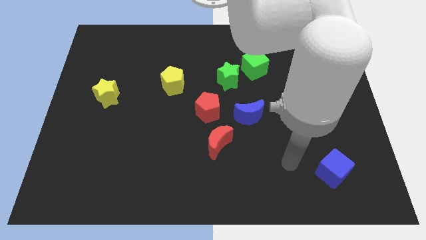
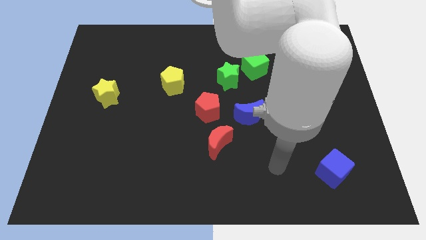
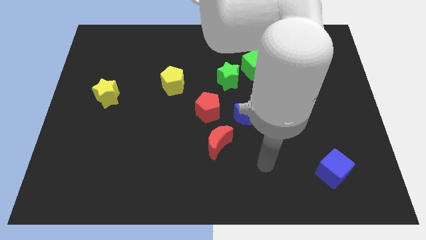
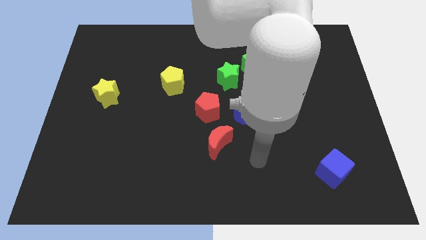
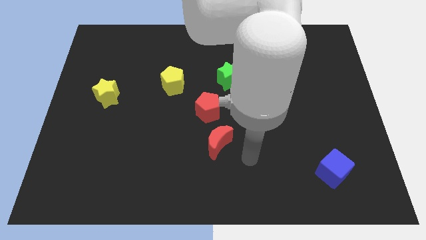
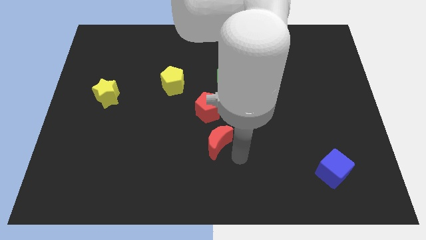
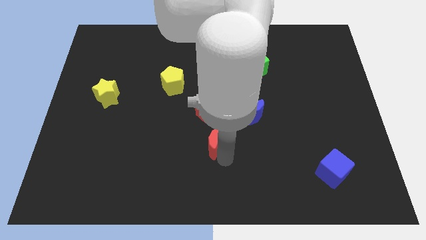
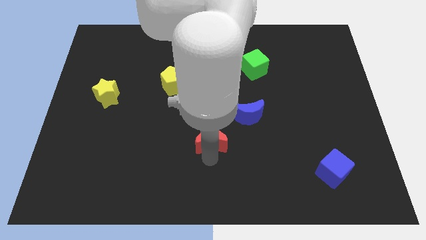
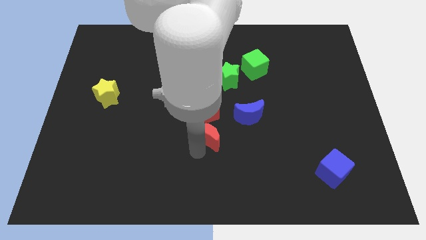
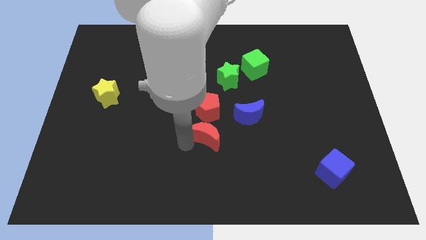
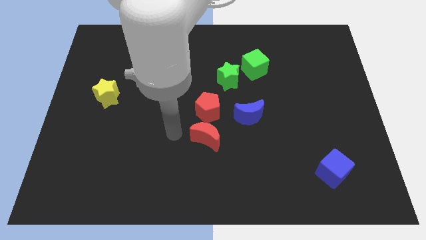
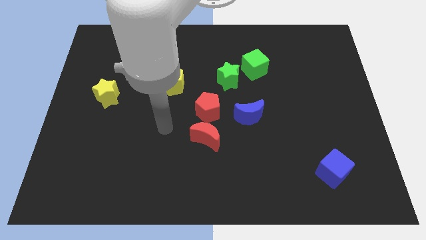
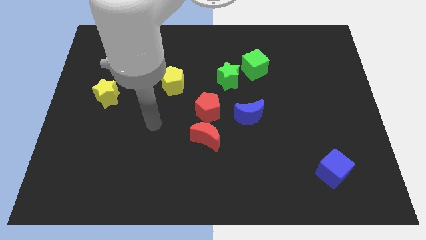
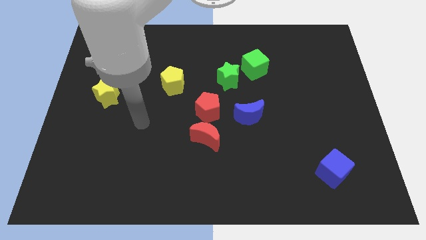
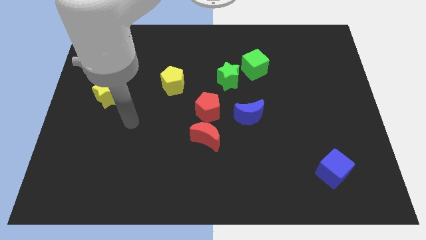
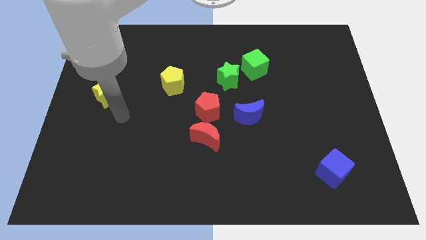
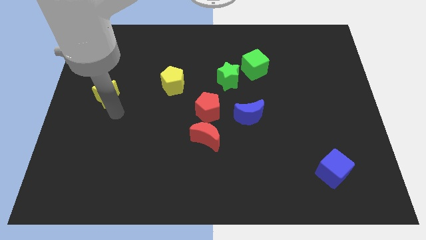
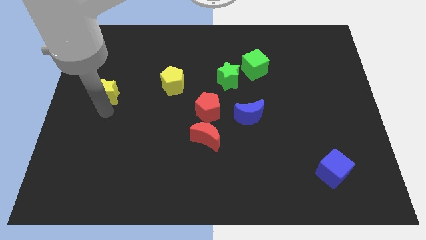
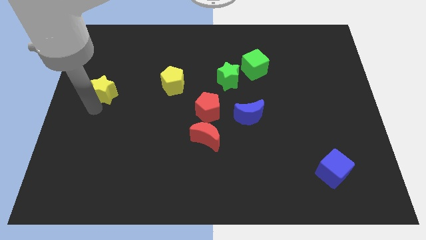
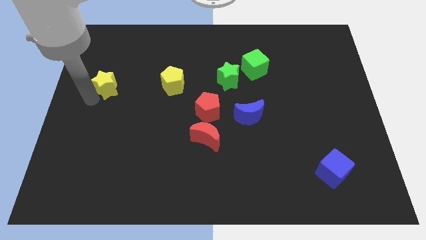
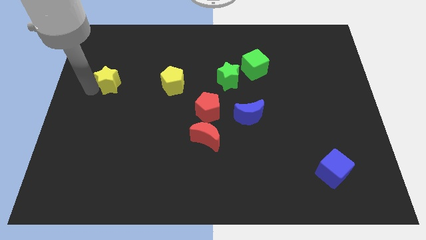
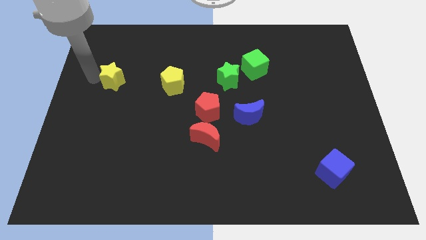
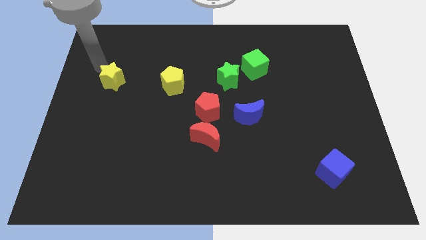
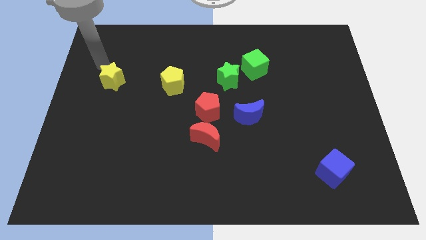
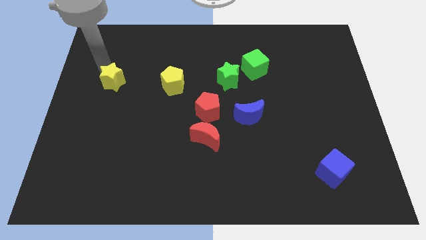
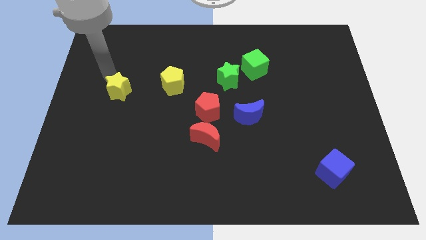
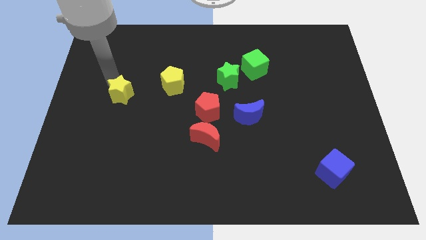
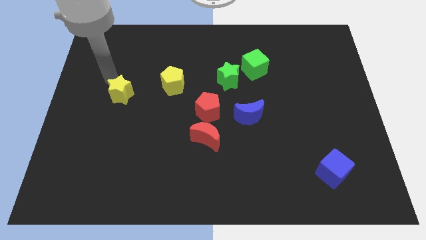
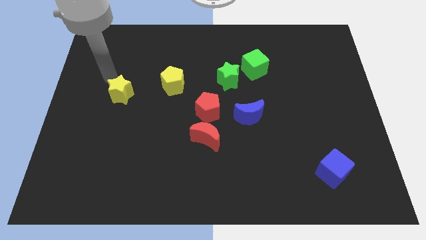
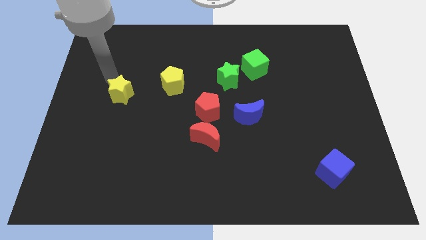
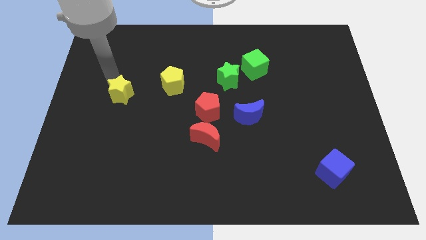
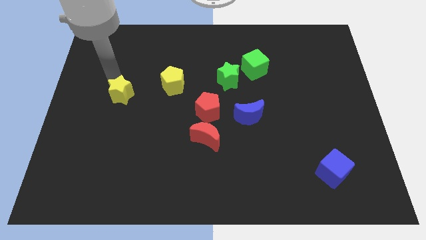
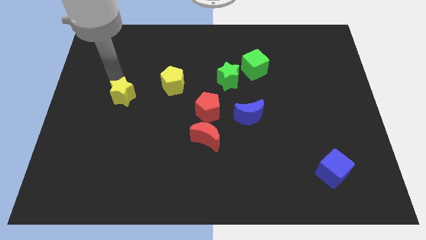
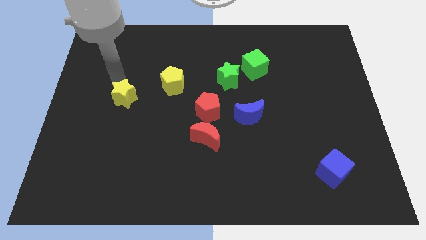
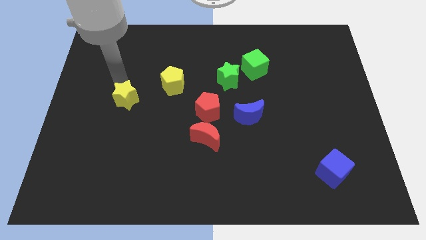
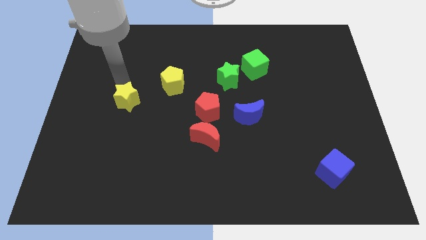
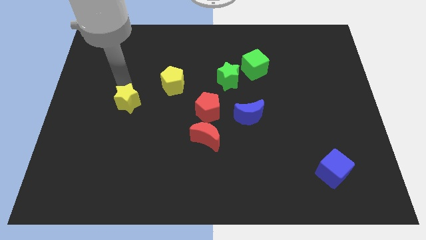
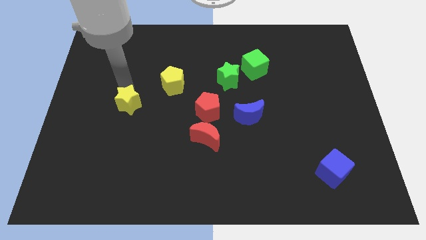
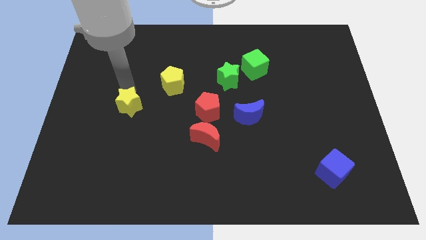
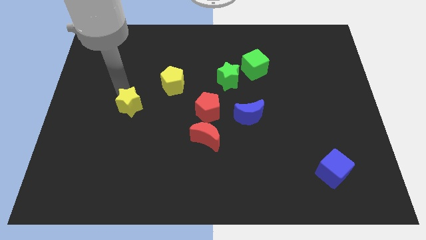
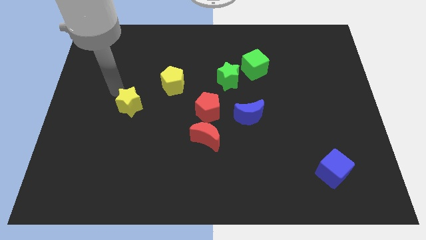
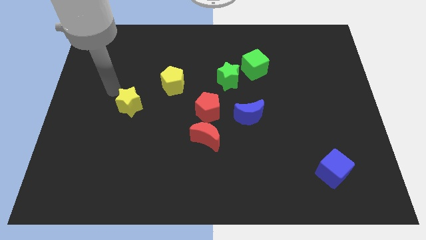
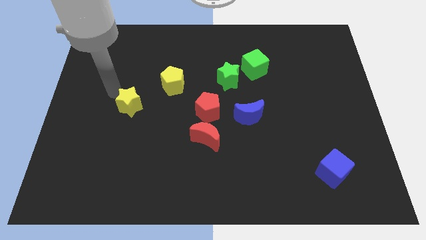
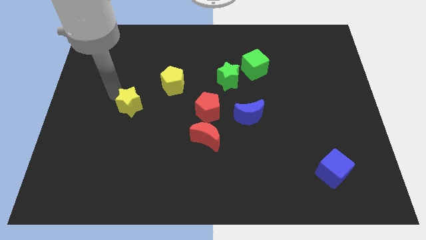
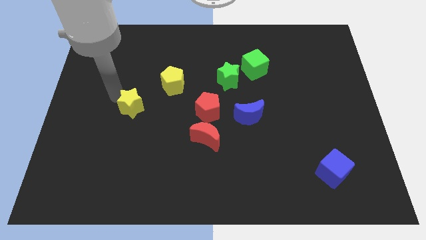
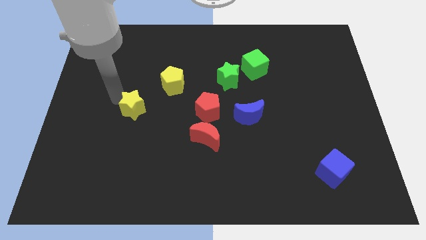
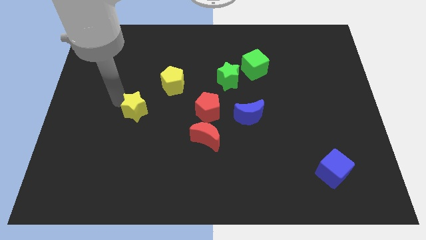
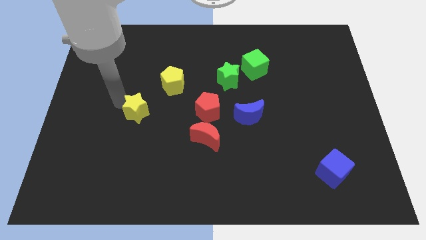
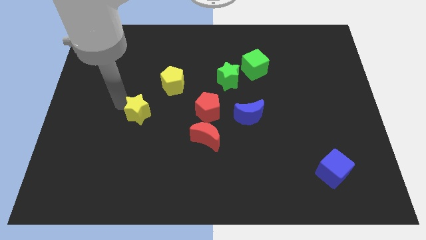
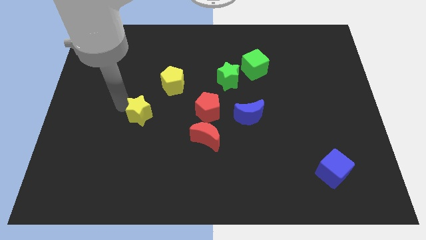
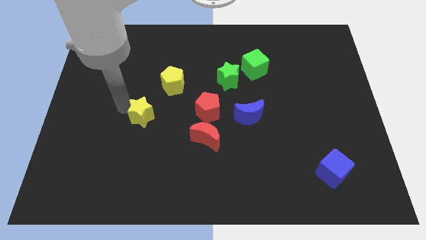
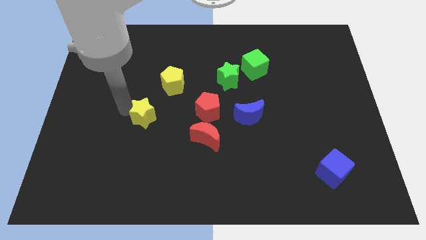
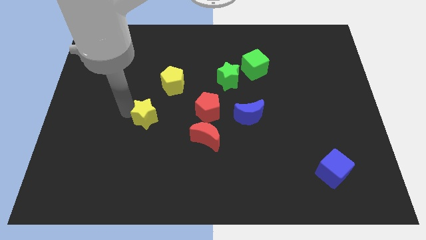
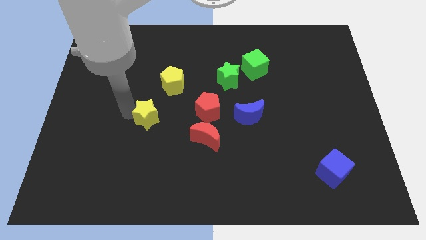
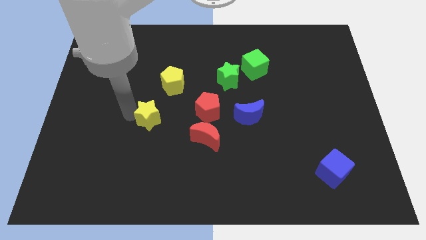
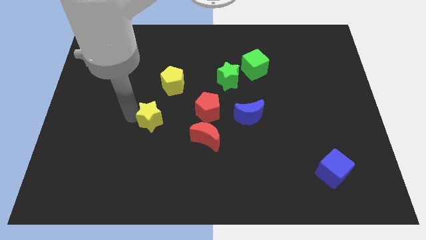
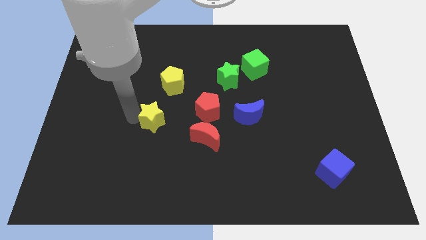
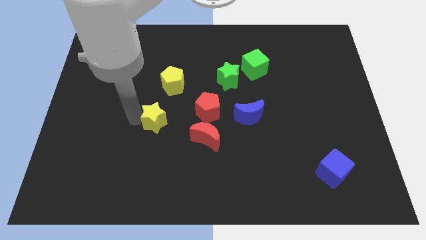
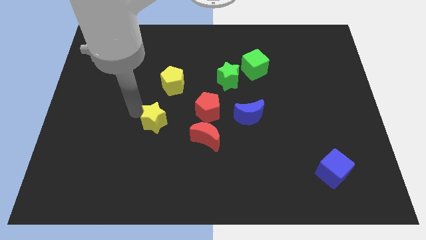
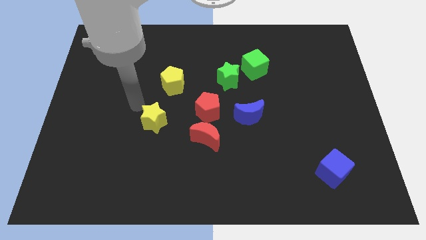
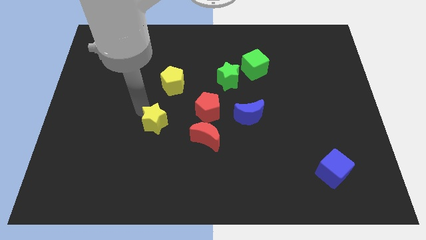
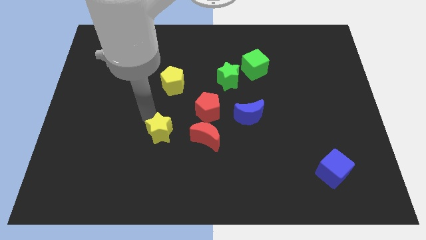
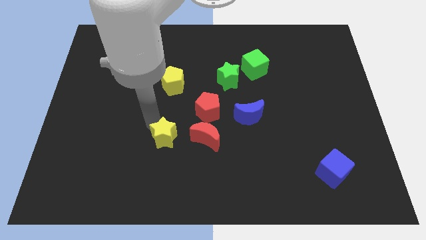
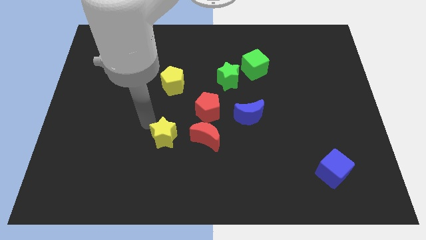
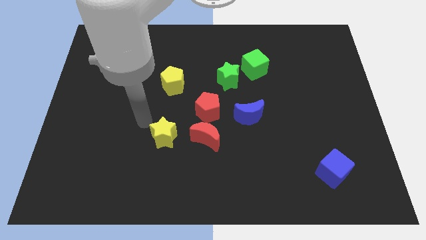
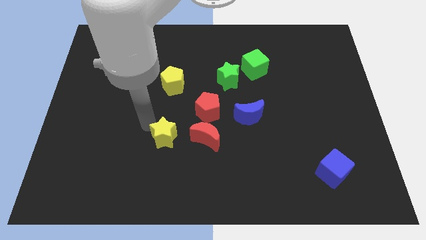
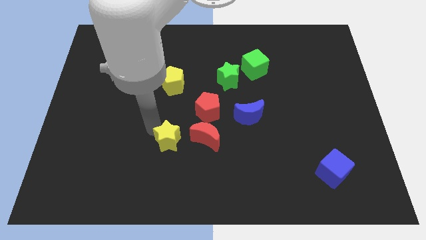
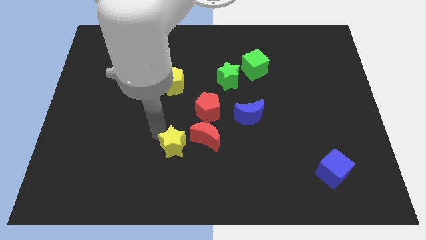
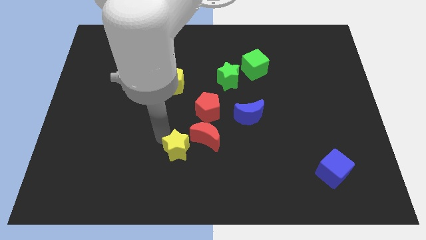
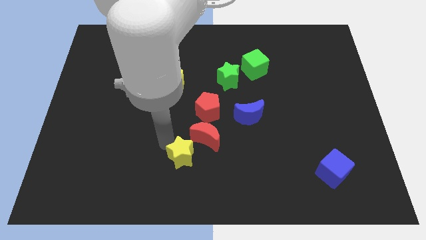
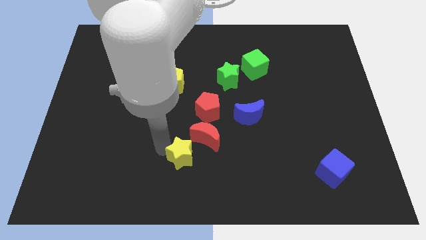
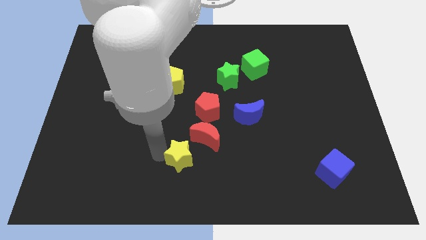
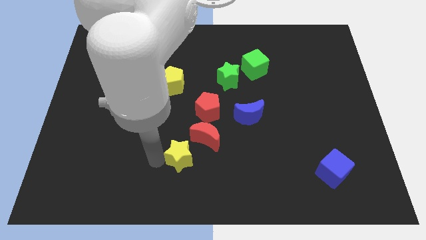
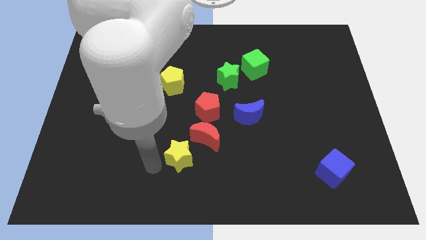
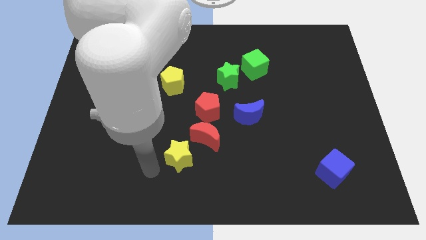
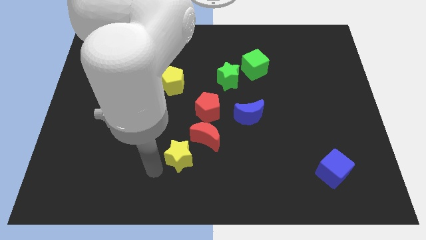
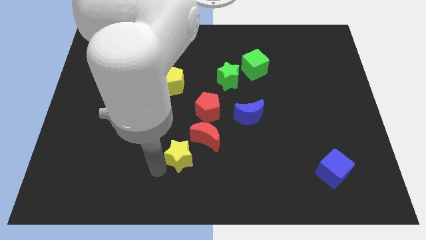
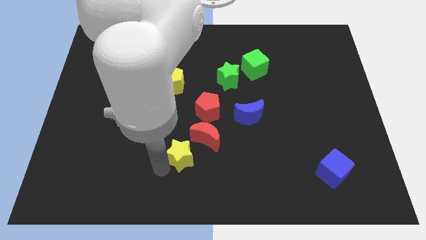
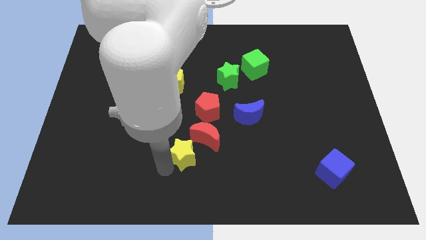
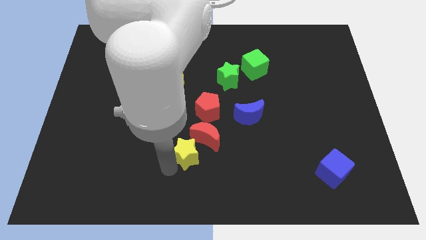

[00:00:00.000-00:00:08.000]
put the yellow star below the red pentagon
